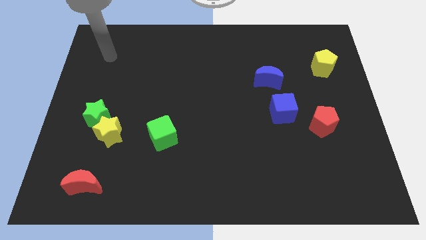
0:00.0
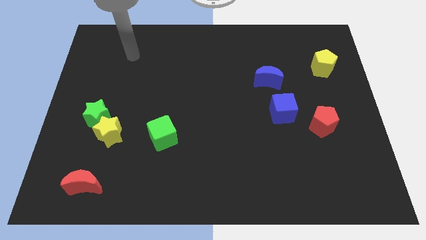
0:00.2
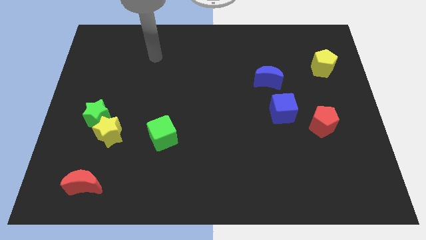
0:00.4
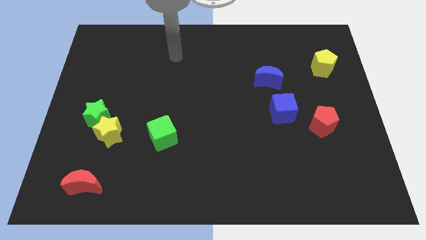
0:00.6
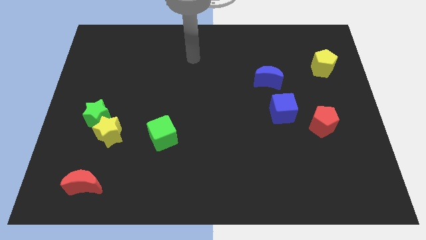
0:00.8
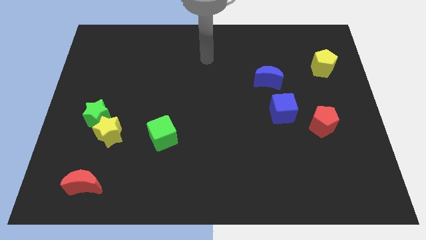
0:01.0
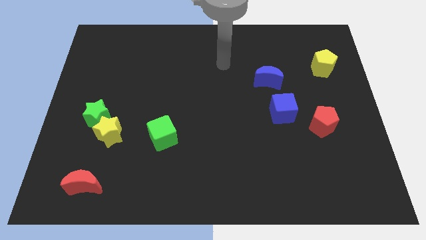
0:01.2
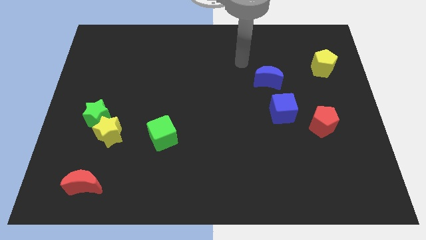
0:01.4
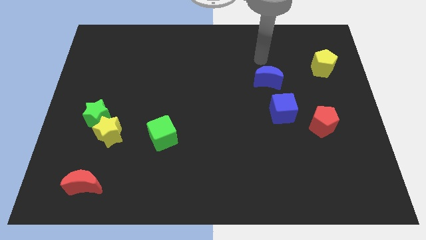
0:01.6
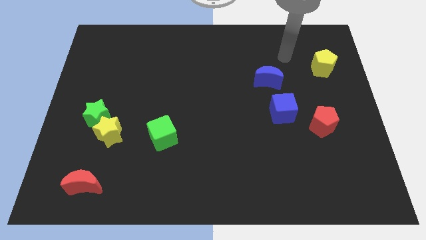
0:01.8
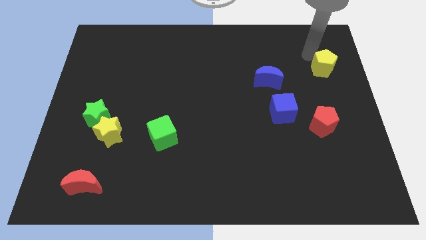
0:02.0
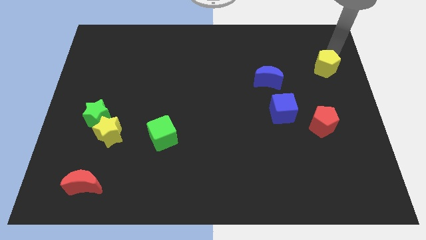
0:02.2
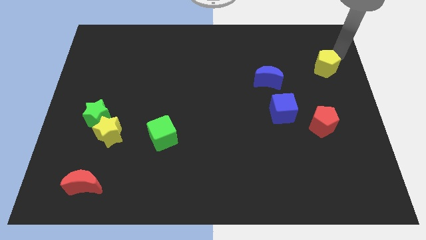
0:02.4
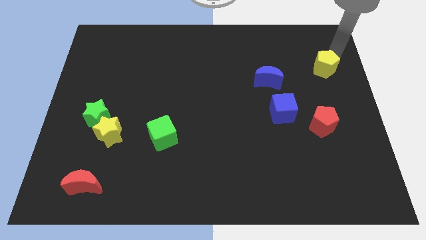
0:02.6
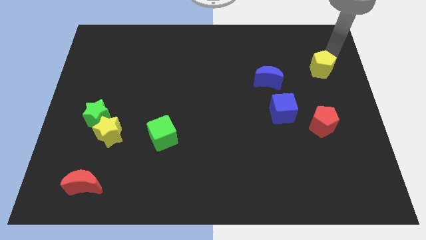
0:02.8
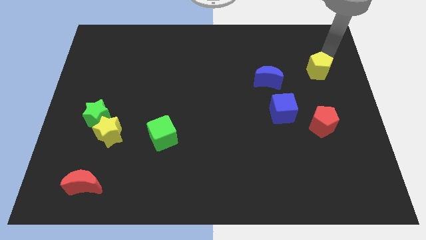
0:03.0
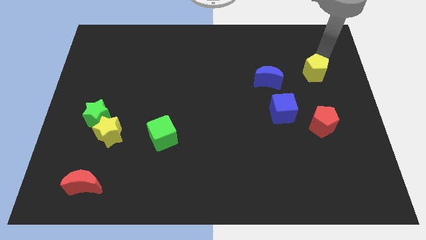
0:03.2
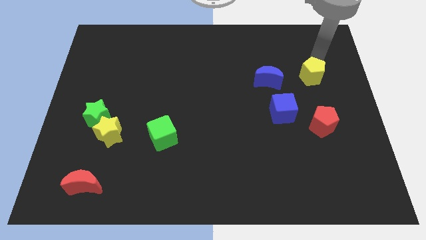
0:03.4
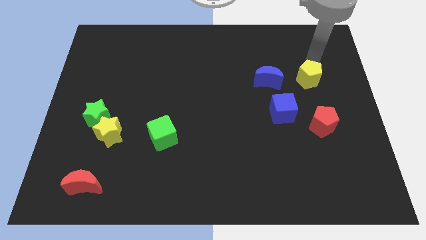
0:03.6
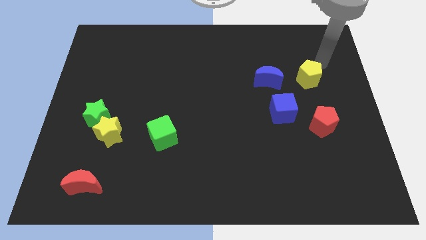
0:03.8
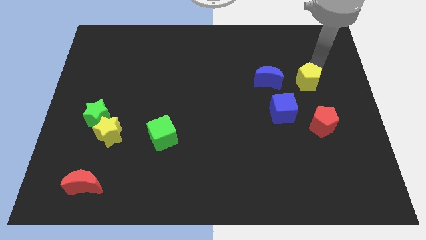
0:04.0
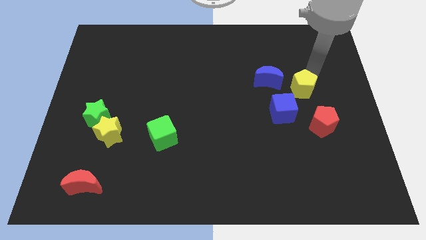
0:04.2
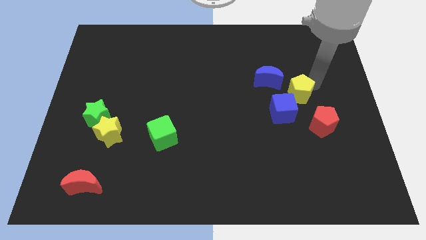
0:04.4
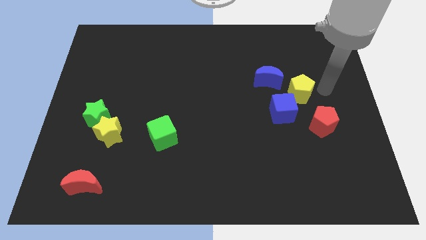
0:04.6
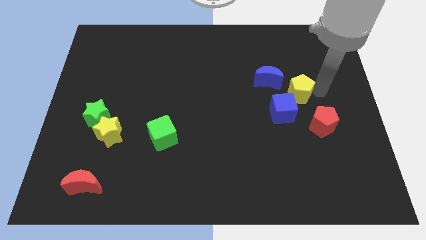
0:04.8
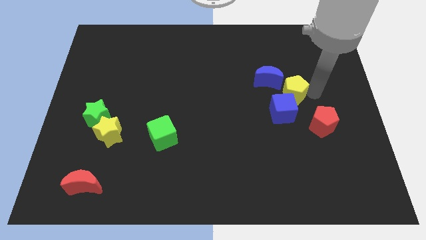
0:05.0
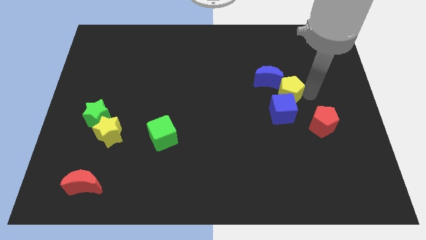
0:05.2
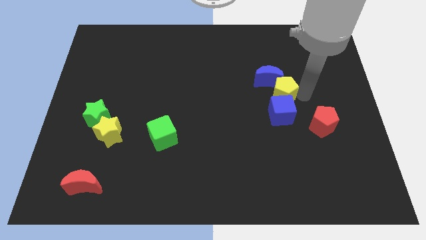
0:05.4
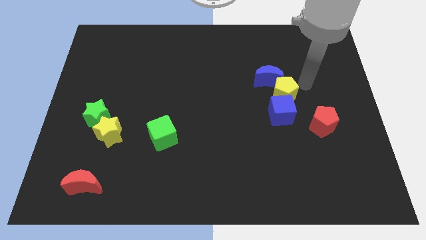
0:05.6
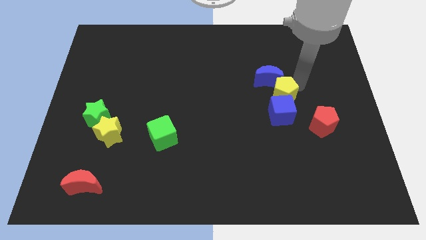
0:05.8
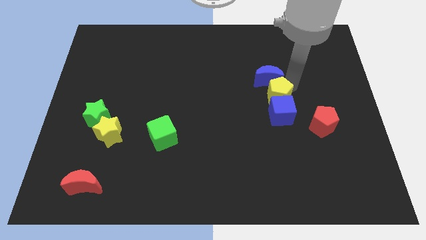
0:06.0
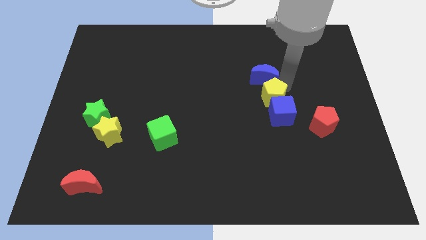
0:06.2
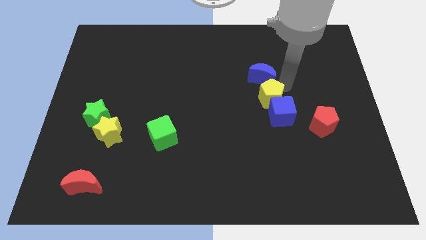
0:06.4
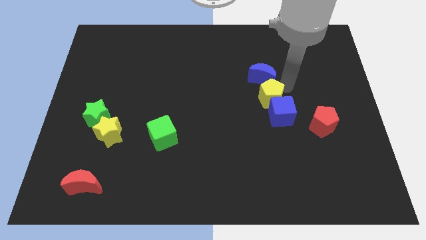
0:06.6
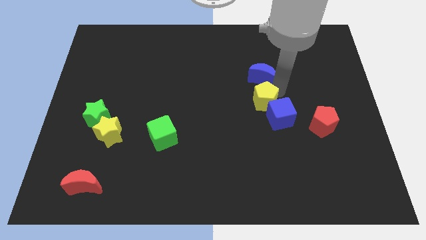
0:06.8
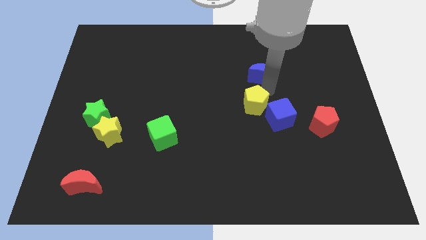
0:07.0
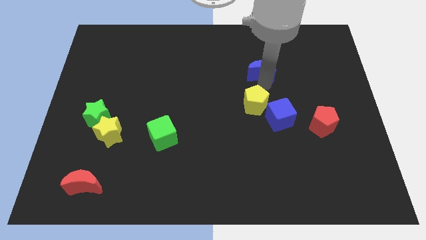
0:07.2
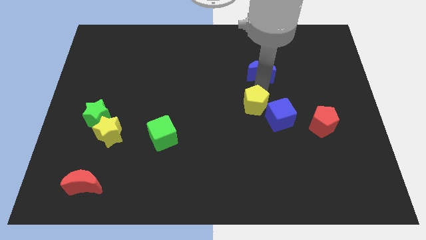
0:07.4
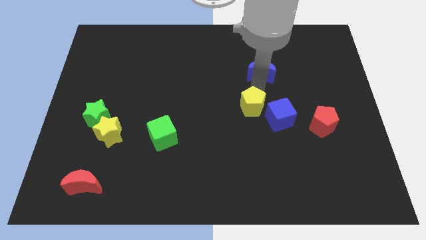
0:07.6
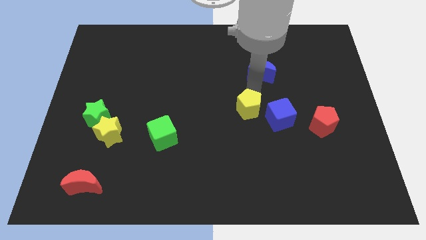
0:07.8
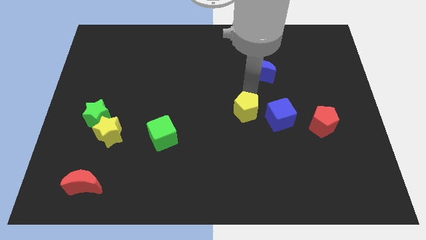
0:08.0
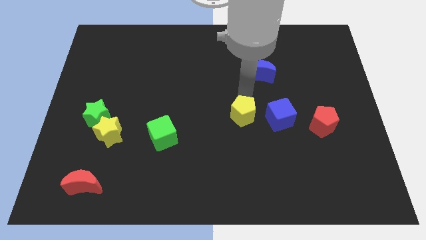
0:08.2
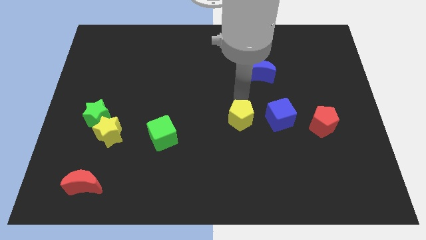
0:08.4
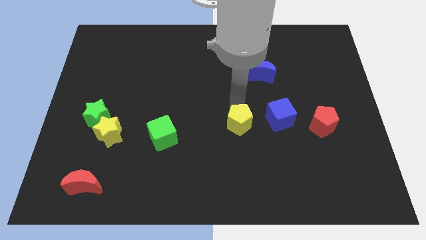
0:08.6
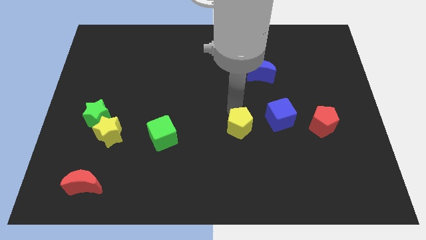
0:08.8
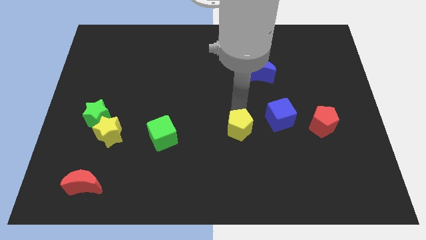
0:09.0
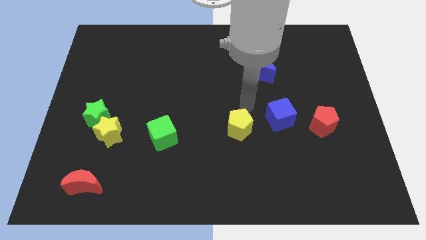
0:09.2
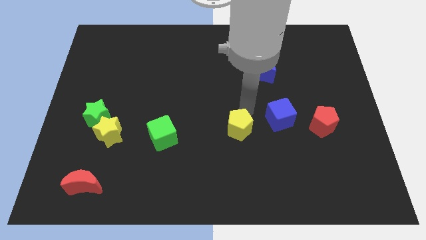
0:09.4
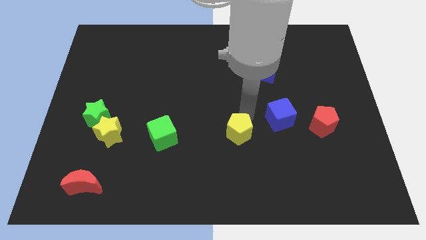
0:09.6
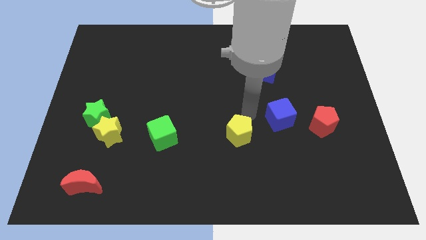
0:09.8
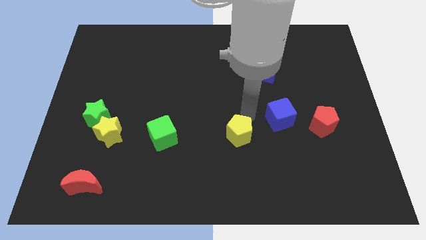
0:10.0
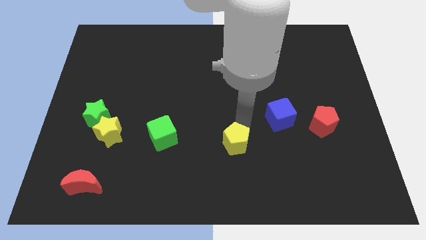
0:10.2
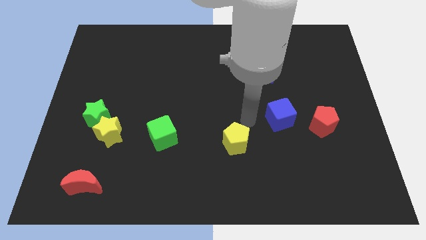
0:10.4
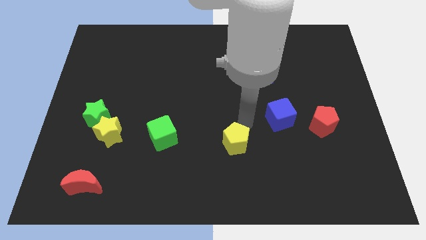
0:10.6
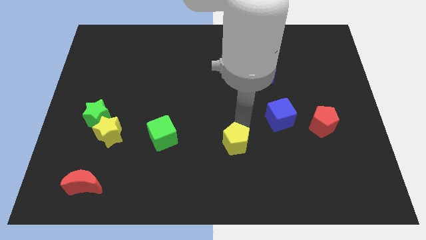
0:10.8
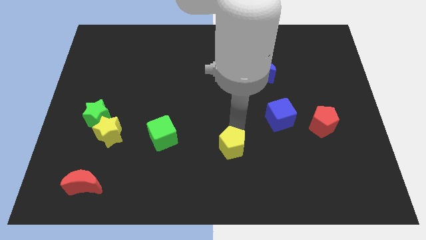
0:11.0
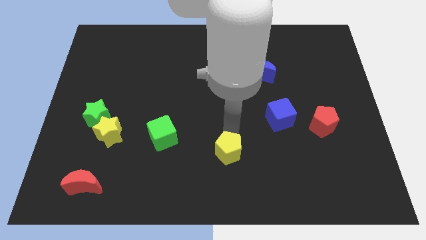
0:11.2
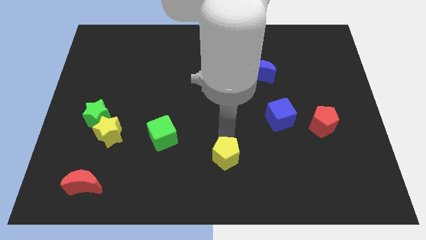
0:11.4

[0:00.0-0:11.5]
put the yellow pentagon to the bottom side
